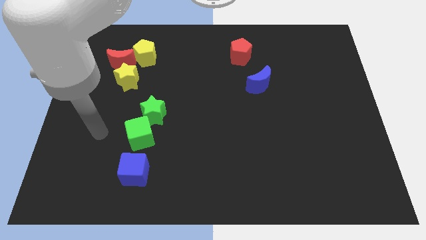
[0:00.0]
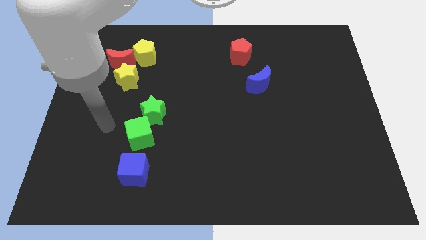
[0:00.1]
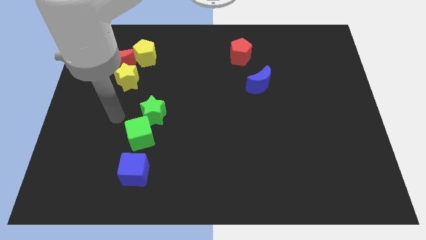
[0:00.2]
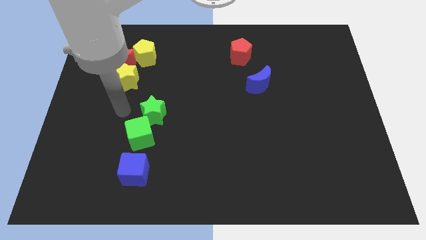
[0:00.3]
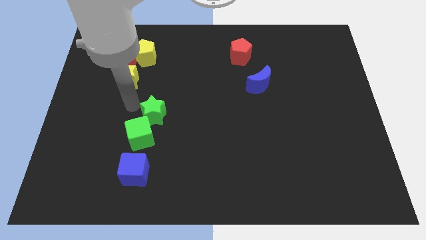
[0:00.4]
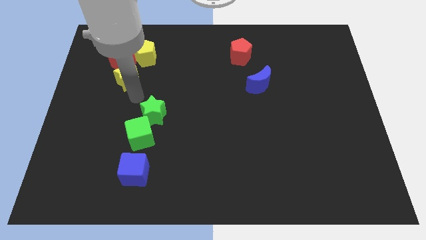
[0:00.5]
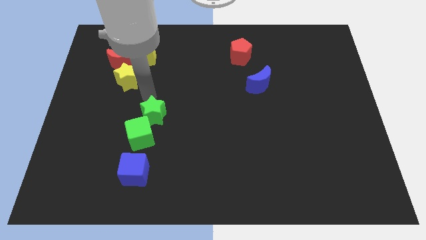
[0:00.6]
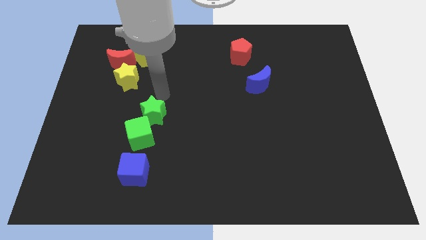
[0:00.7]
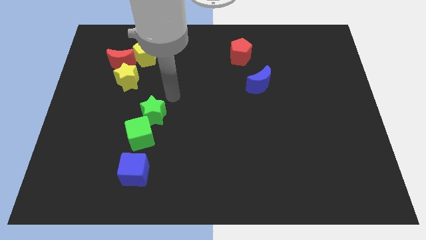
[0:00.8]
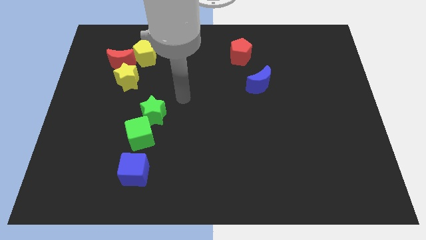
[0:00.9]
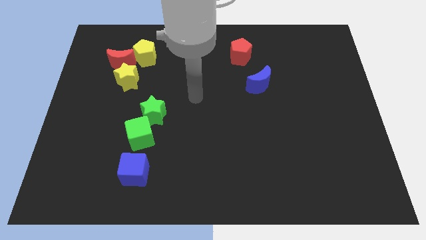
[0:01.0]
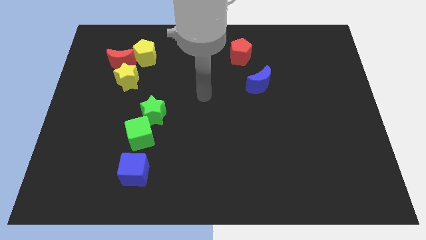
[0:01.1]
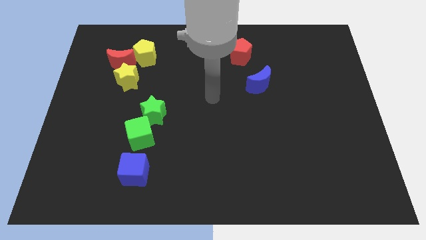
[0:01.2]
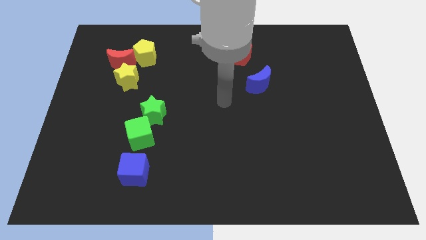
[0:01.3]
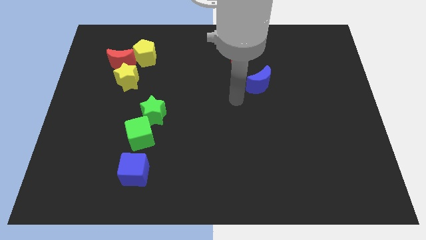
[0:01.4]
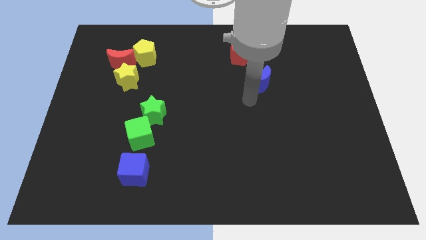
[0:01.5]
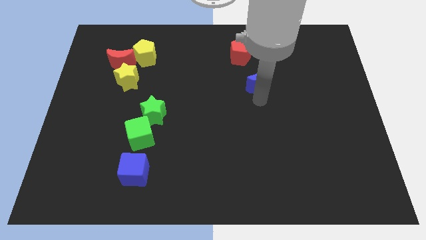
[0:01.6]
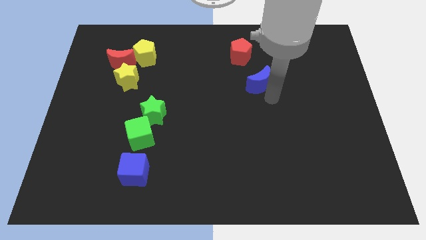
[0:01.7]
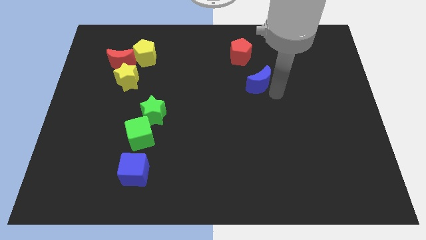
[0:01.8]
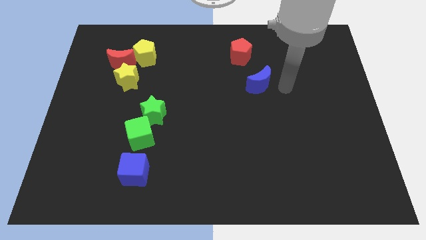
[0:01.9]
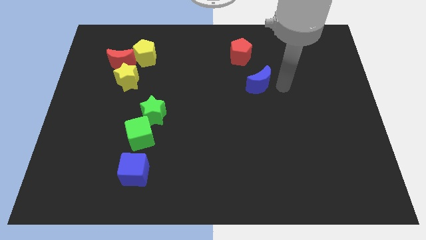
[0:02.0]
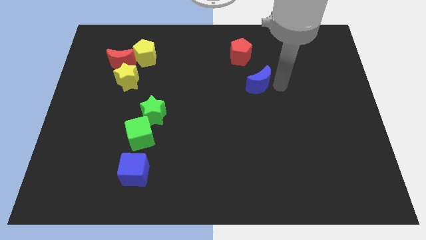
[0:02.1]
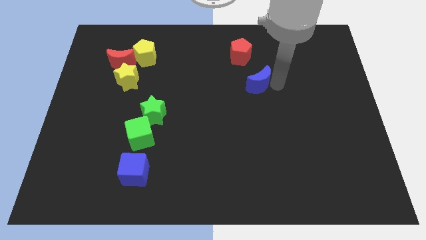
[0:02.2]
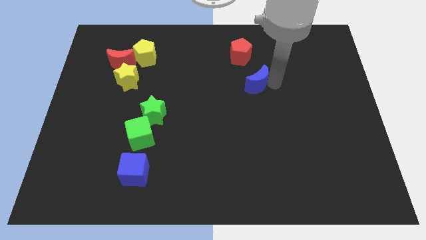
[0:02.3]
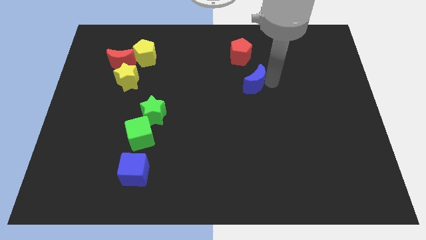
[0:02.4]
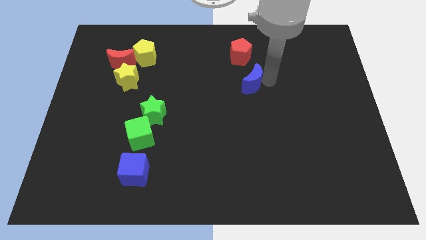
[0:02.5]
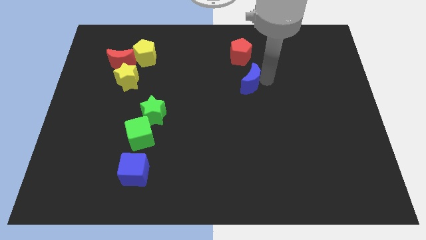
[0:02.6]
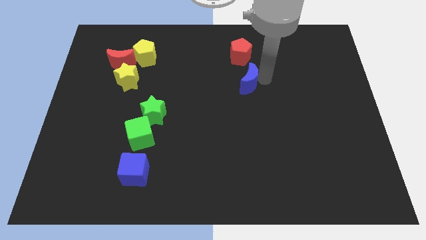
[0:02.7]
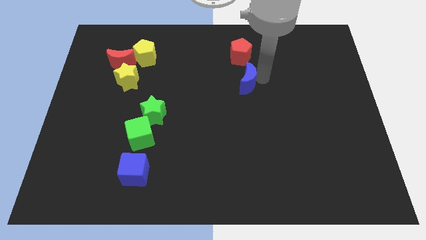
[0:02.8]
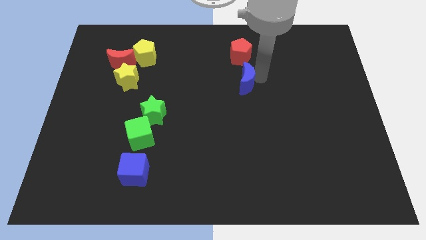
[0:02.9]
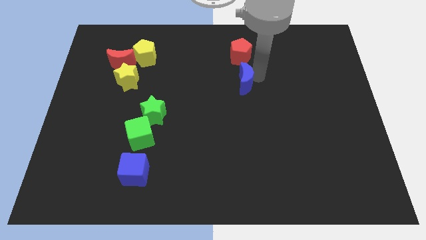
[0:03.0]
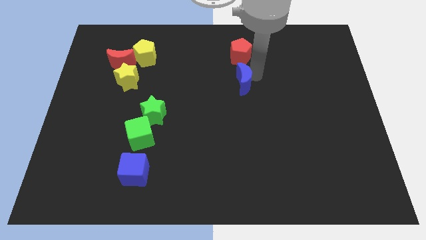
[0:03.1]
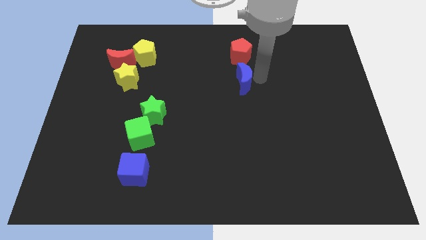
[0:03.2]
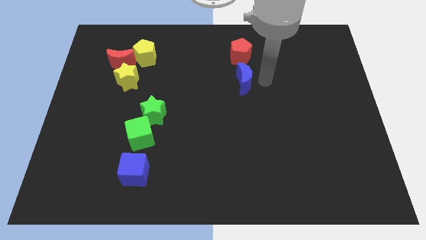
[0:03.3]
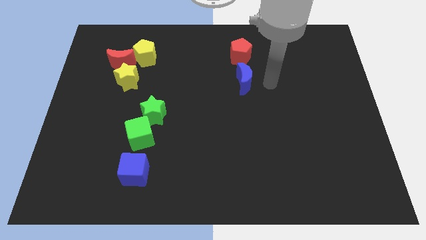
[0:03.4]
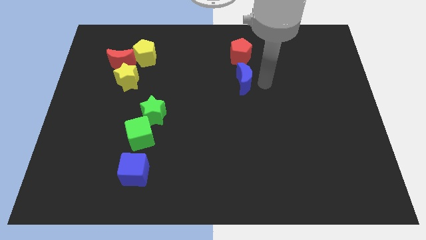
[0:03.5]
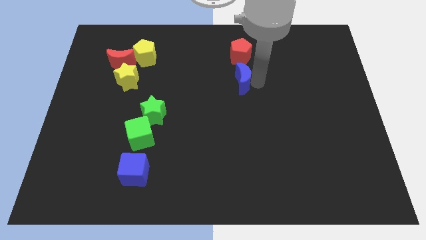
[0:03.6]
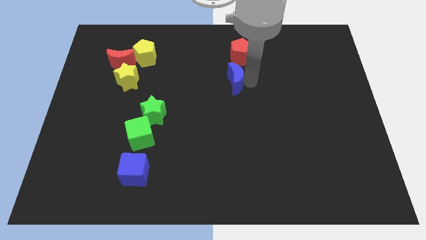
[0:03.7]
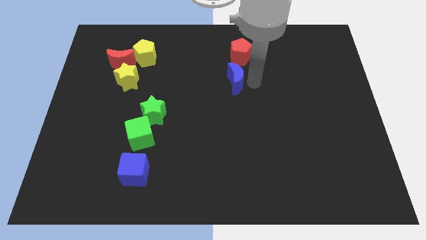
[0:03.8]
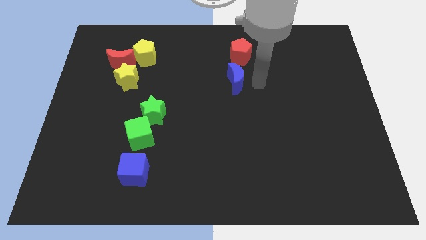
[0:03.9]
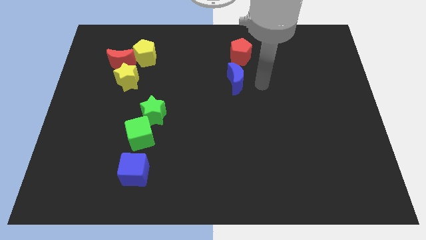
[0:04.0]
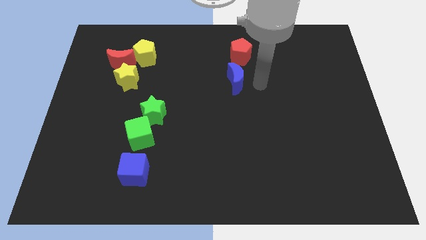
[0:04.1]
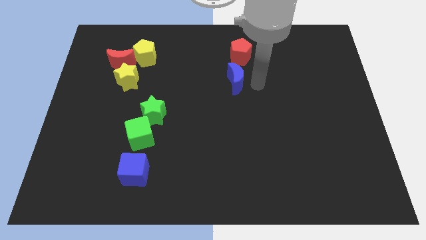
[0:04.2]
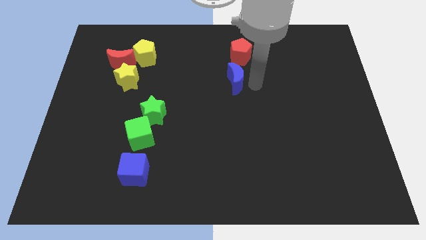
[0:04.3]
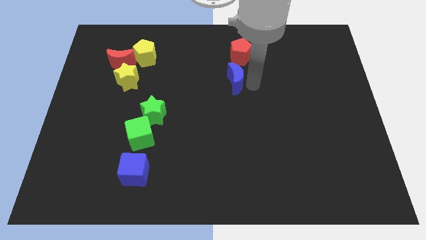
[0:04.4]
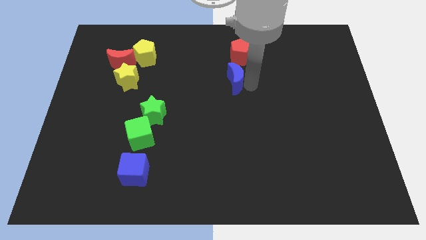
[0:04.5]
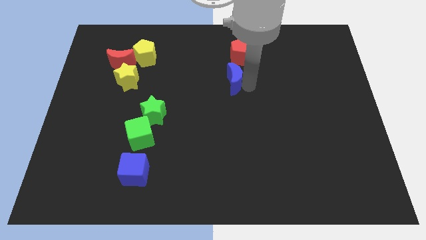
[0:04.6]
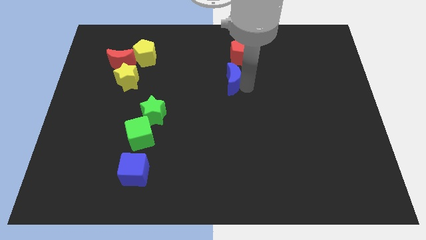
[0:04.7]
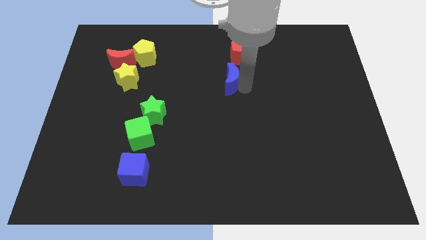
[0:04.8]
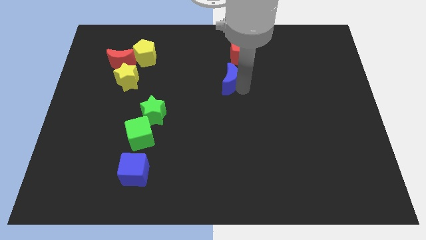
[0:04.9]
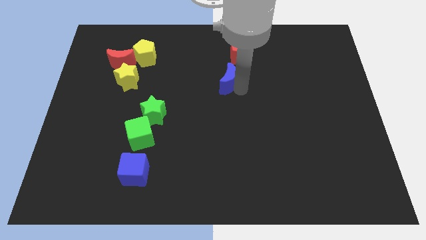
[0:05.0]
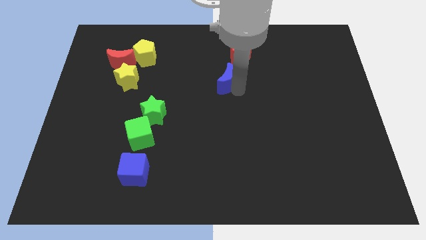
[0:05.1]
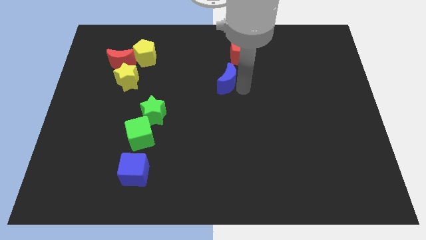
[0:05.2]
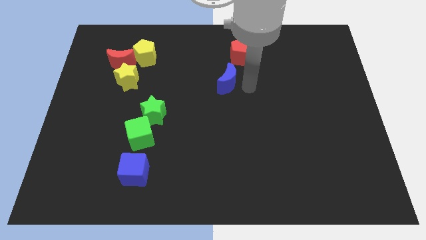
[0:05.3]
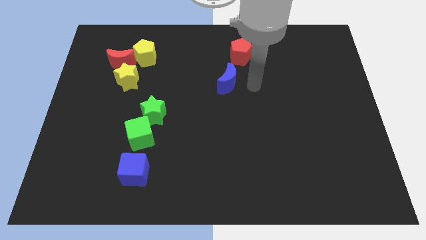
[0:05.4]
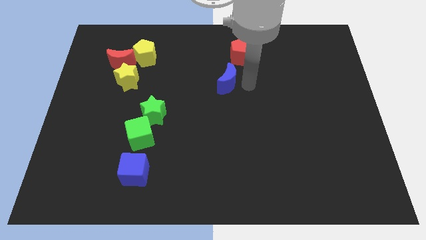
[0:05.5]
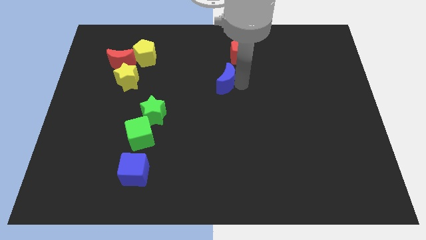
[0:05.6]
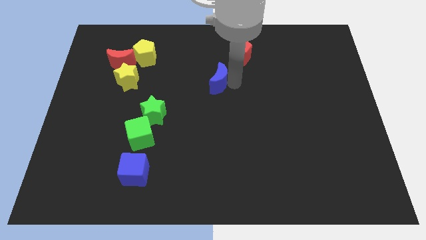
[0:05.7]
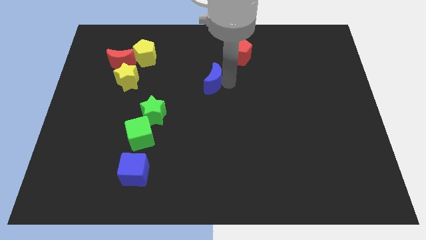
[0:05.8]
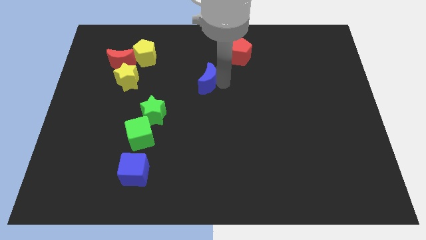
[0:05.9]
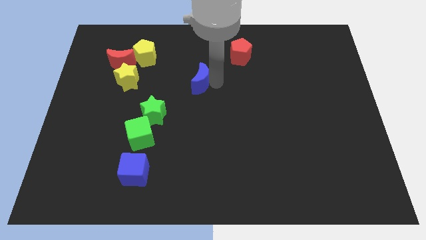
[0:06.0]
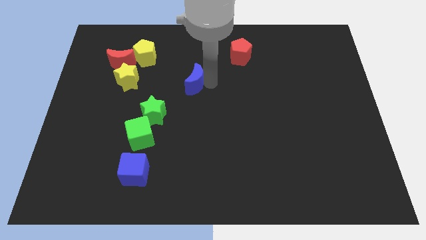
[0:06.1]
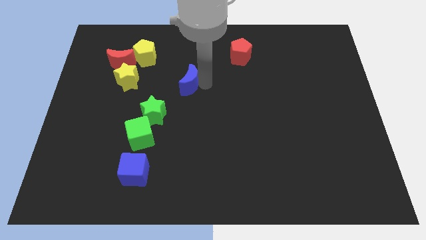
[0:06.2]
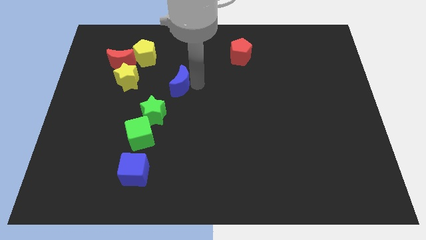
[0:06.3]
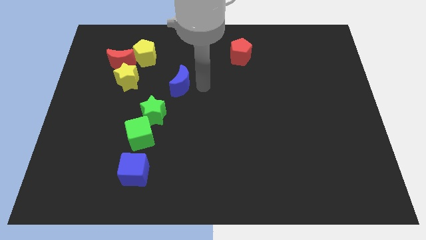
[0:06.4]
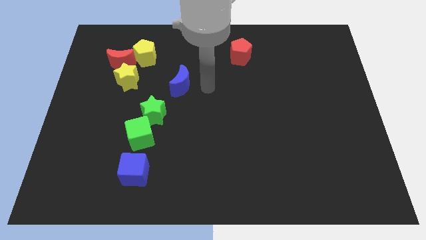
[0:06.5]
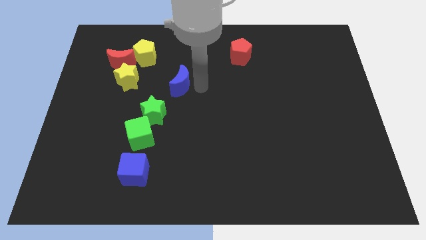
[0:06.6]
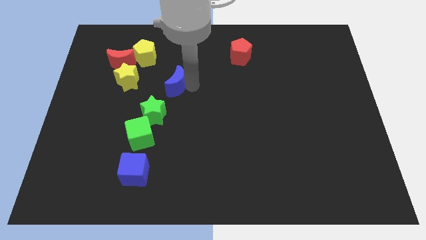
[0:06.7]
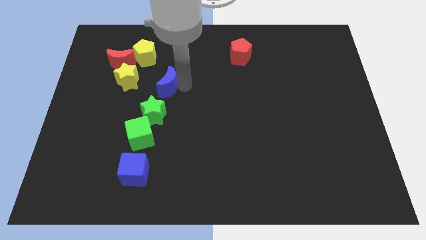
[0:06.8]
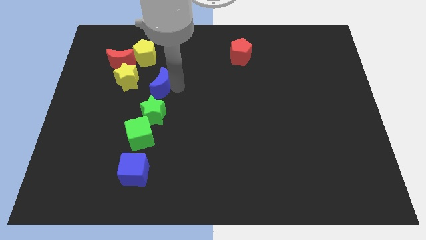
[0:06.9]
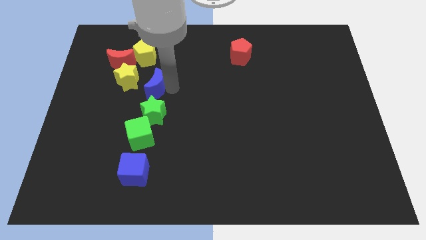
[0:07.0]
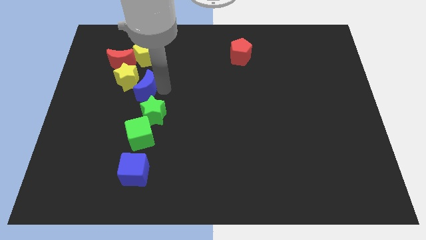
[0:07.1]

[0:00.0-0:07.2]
slide the blue moon towards the yellow star
